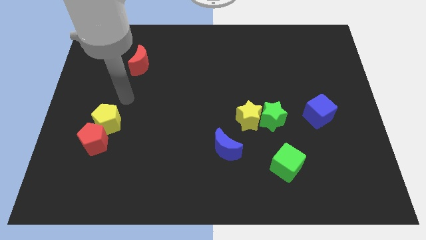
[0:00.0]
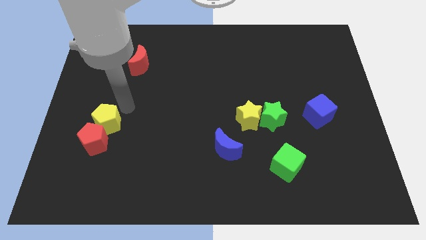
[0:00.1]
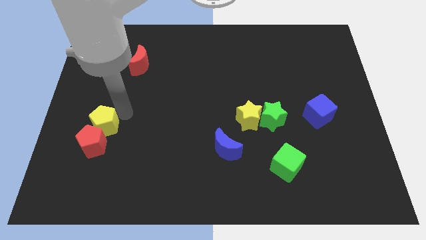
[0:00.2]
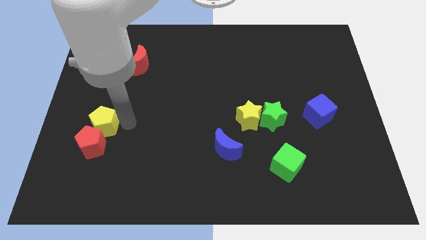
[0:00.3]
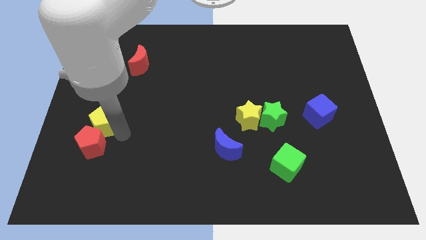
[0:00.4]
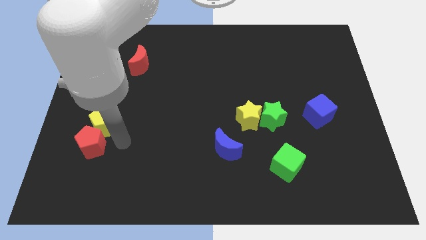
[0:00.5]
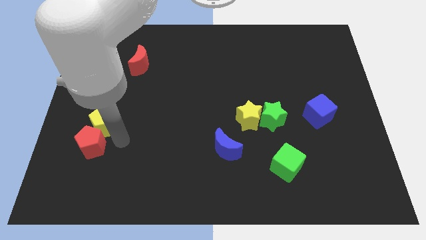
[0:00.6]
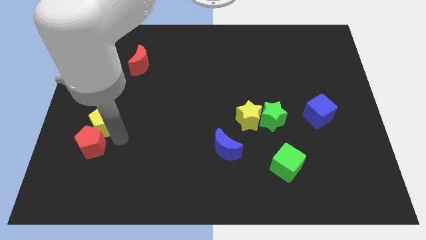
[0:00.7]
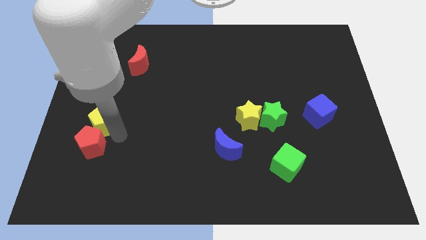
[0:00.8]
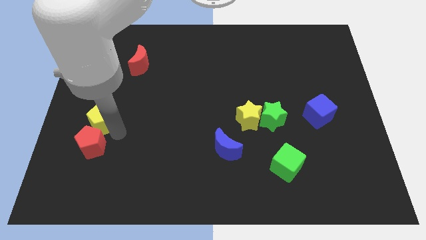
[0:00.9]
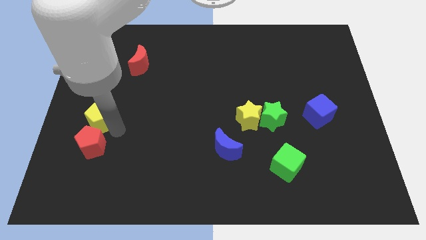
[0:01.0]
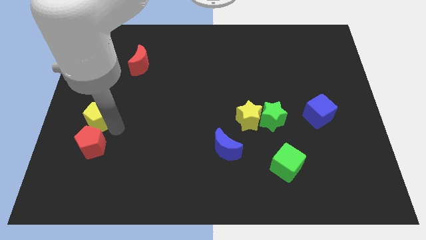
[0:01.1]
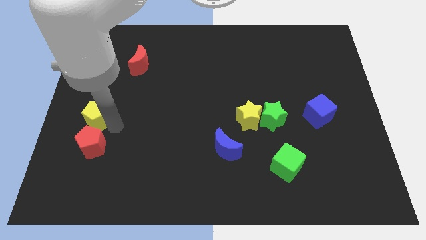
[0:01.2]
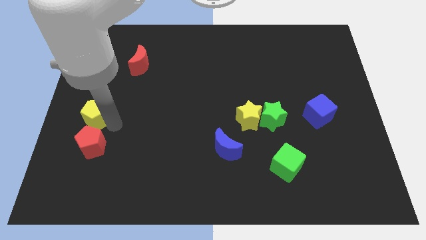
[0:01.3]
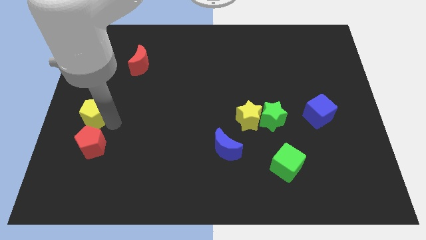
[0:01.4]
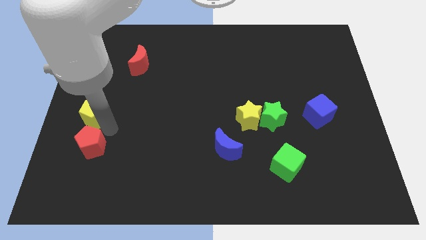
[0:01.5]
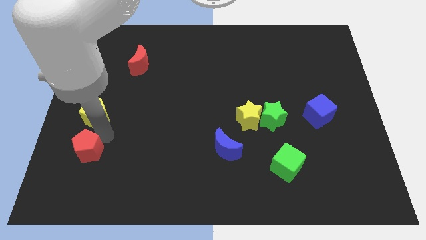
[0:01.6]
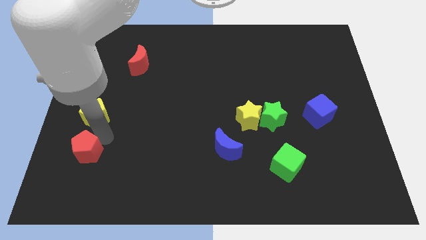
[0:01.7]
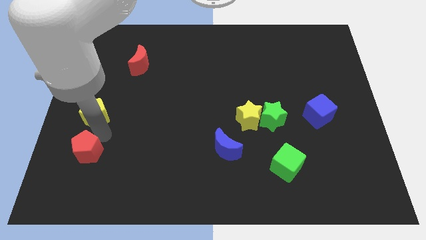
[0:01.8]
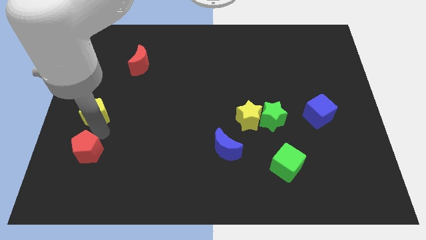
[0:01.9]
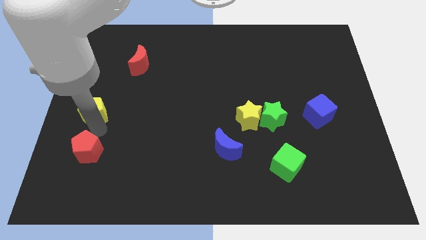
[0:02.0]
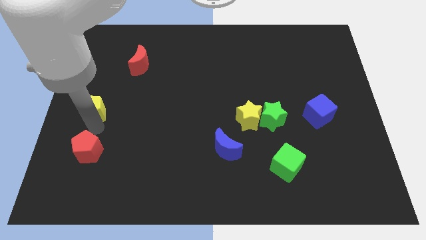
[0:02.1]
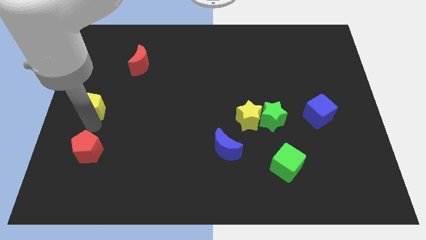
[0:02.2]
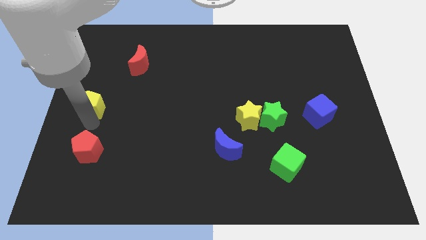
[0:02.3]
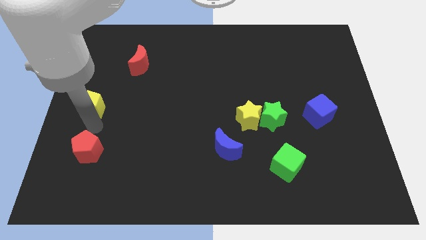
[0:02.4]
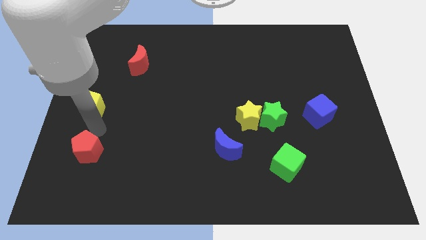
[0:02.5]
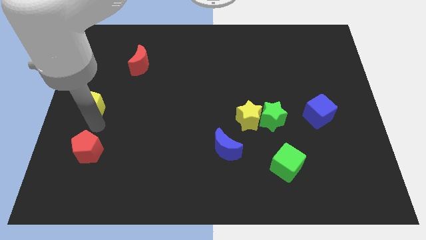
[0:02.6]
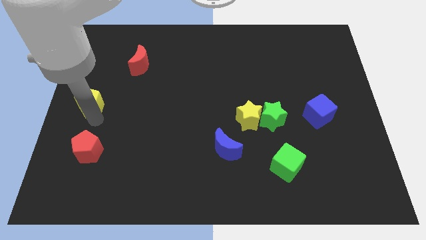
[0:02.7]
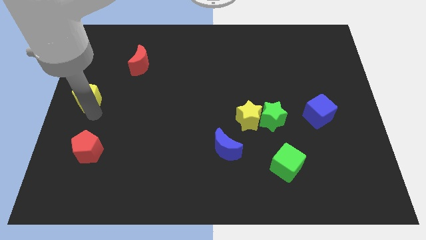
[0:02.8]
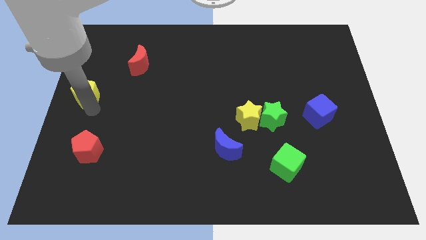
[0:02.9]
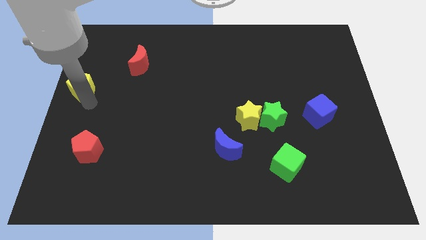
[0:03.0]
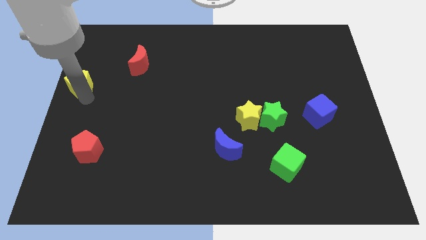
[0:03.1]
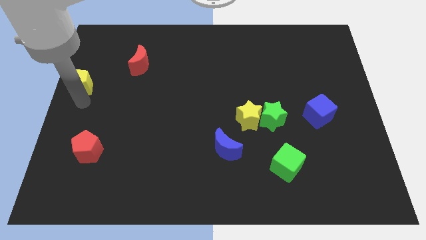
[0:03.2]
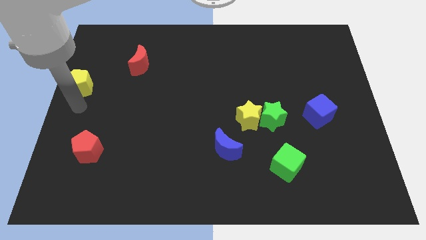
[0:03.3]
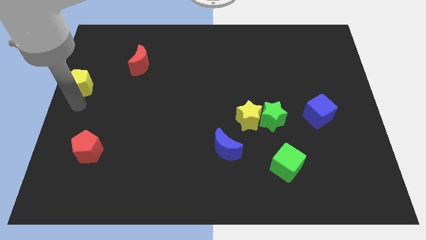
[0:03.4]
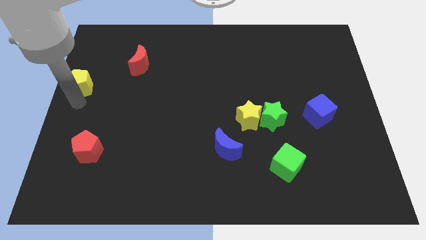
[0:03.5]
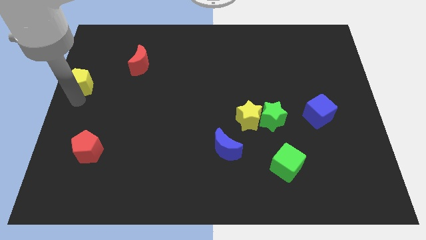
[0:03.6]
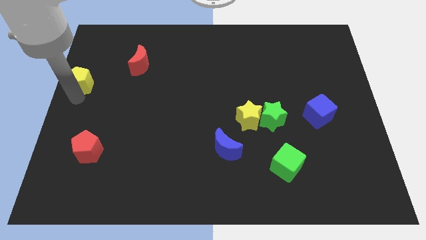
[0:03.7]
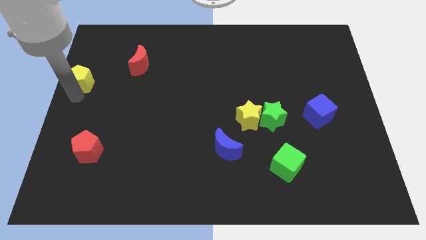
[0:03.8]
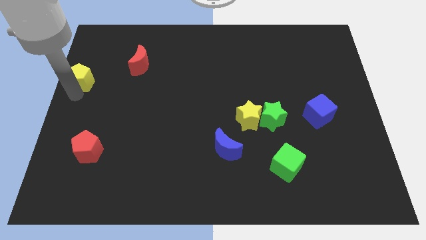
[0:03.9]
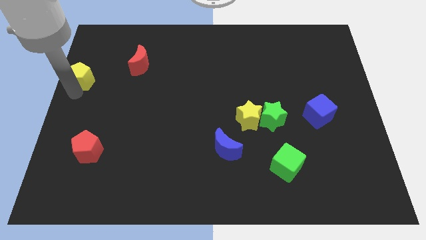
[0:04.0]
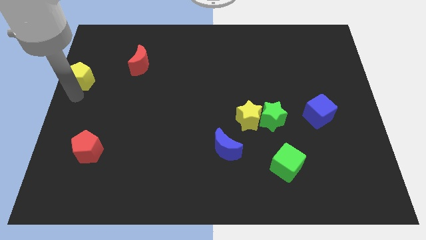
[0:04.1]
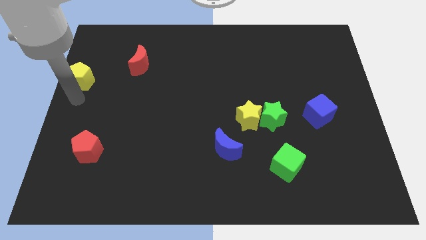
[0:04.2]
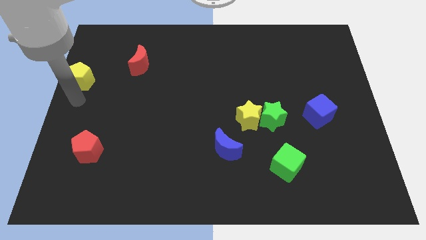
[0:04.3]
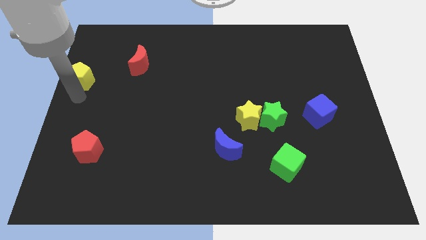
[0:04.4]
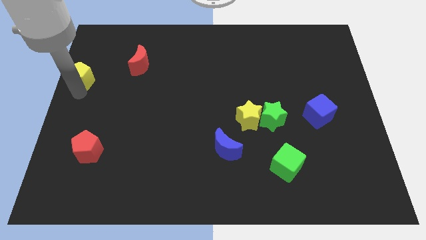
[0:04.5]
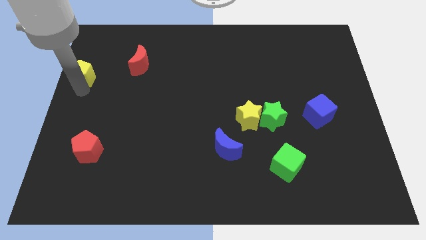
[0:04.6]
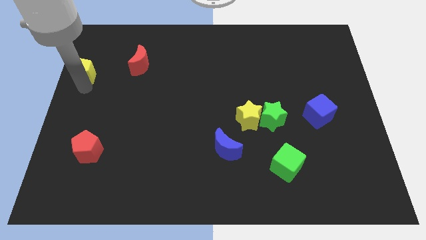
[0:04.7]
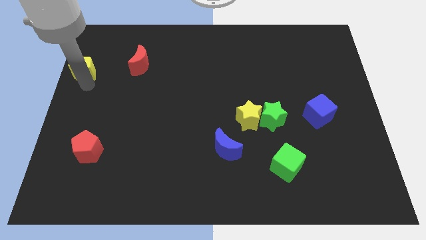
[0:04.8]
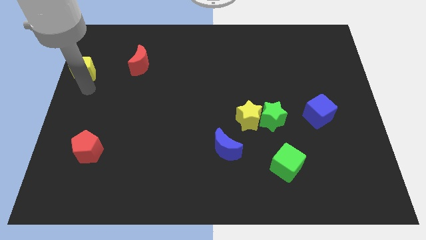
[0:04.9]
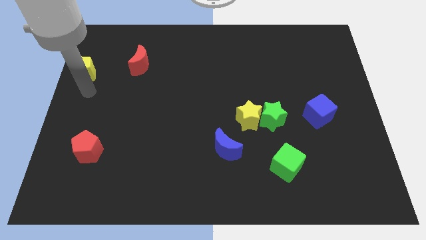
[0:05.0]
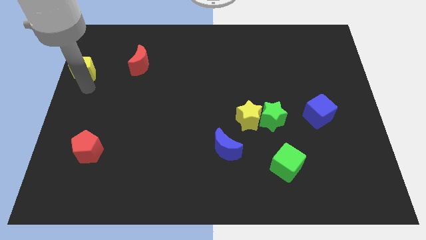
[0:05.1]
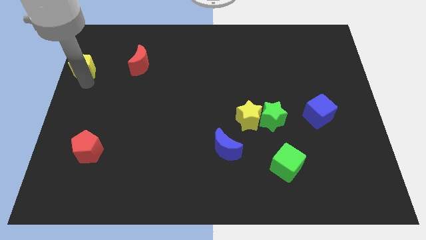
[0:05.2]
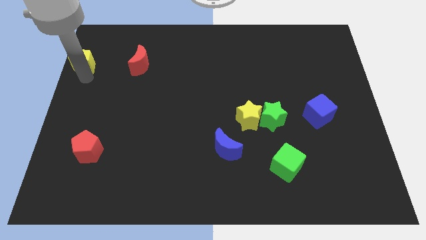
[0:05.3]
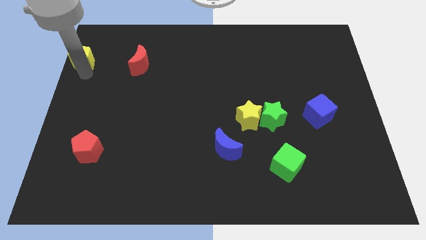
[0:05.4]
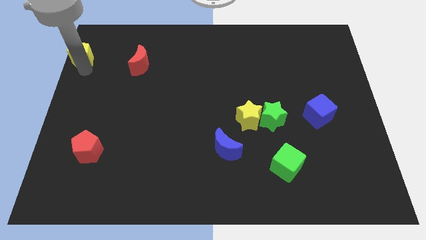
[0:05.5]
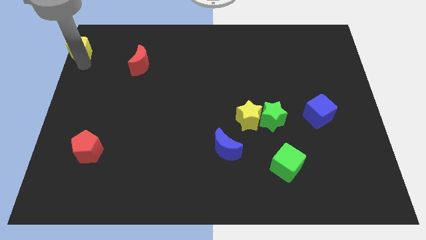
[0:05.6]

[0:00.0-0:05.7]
push the yellow pentagon to the upper left corner
